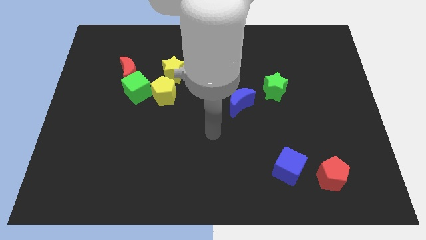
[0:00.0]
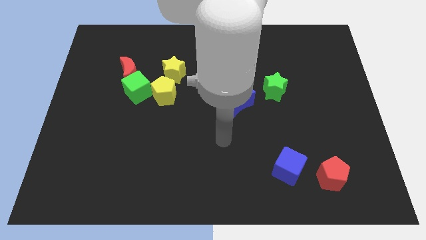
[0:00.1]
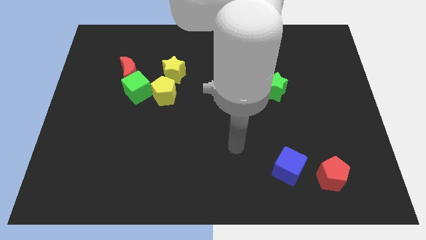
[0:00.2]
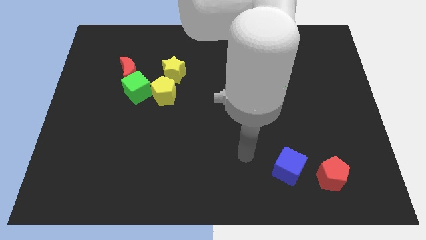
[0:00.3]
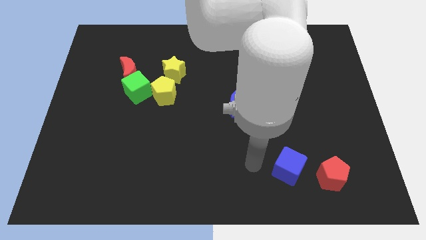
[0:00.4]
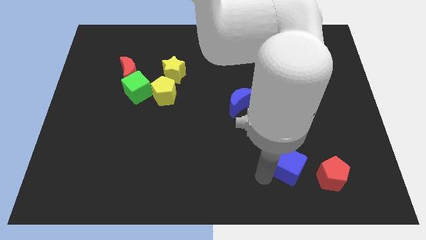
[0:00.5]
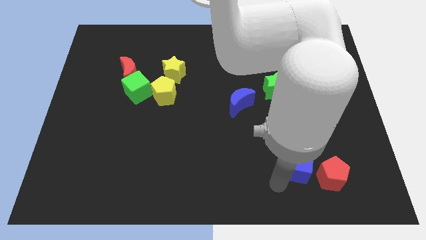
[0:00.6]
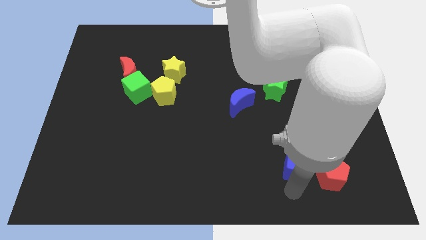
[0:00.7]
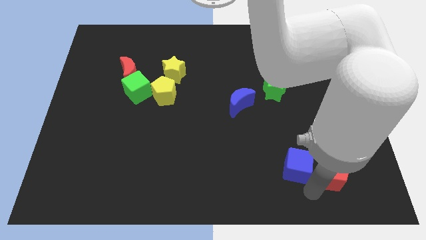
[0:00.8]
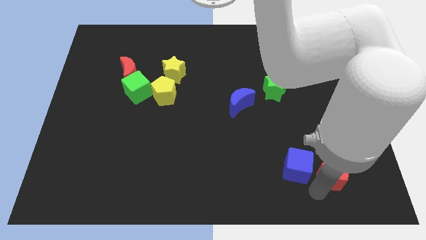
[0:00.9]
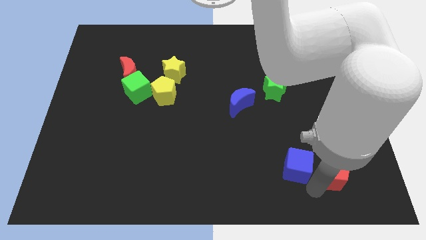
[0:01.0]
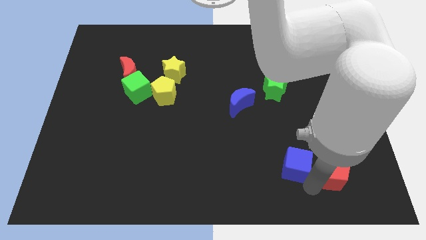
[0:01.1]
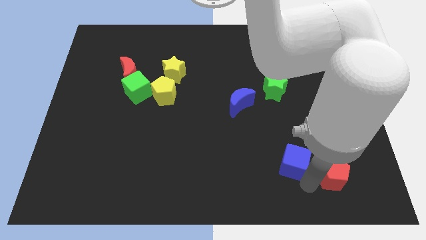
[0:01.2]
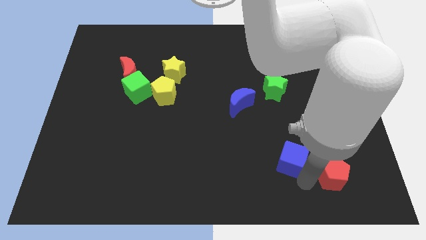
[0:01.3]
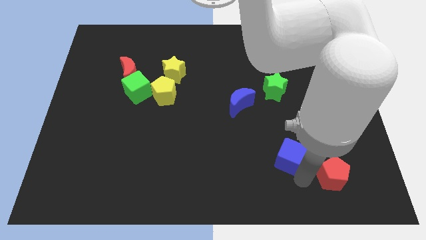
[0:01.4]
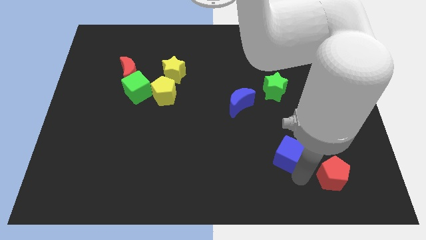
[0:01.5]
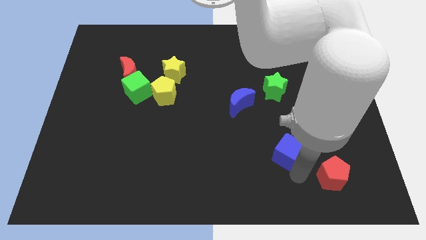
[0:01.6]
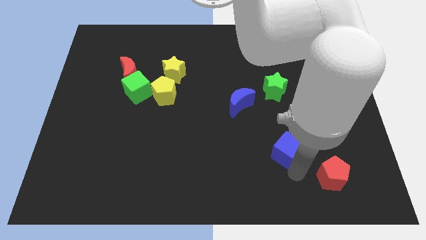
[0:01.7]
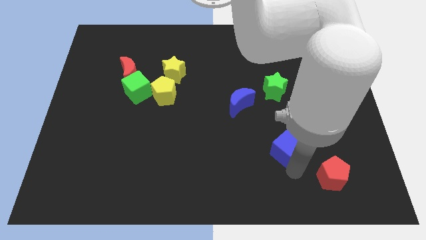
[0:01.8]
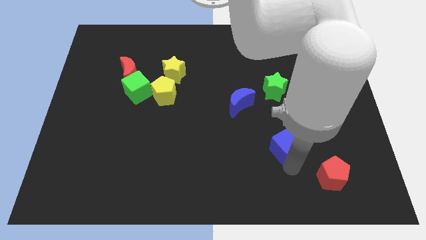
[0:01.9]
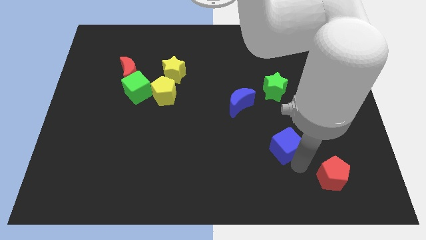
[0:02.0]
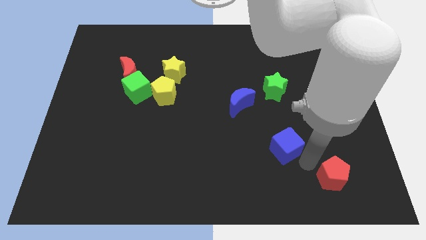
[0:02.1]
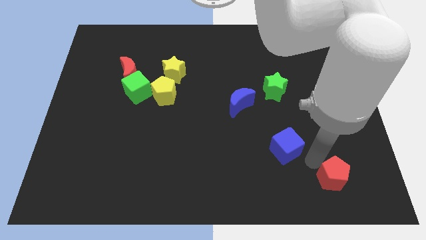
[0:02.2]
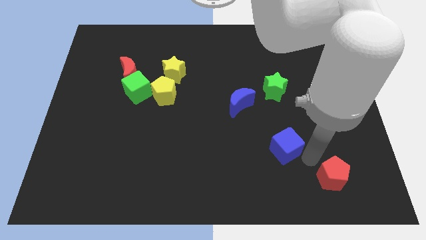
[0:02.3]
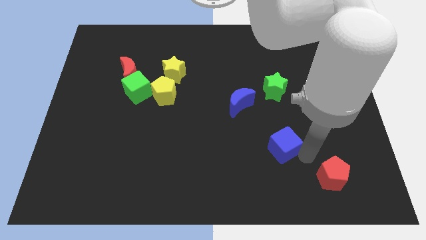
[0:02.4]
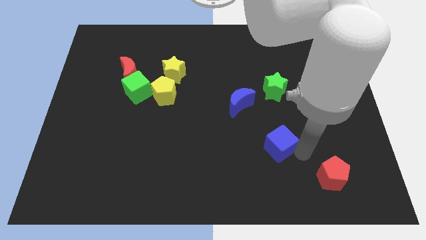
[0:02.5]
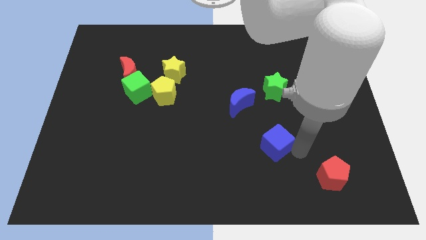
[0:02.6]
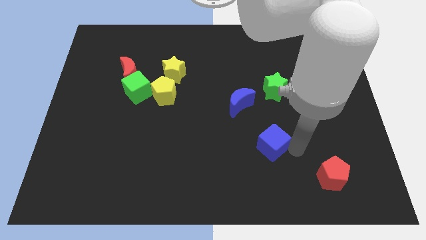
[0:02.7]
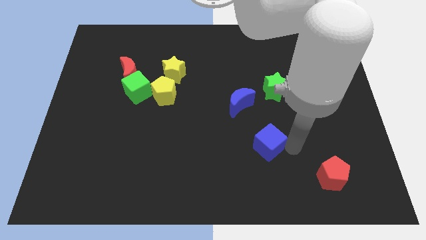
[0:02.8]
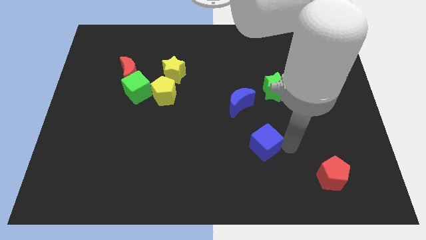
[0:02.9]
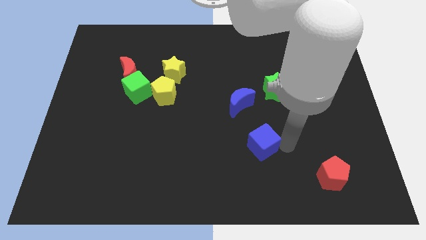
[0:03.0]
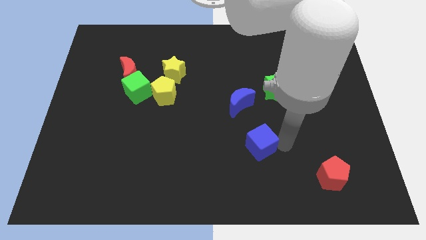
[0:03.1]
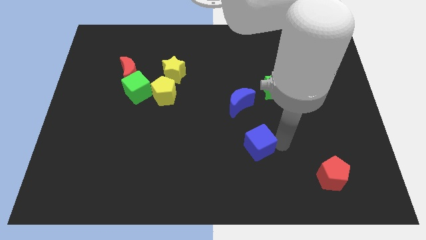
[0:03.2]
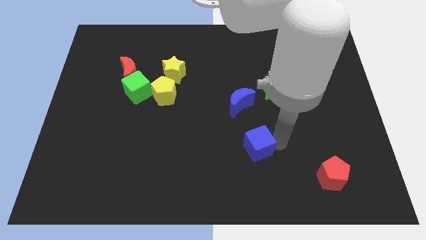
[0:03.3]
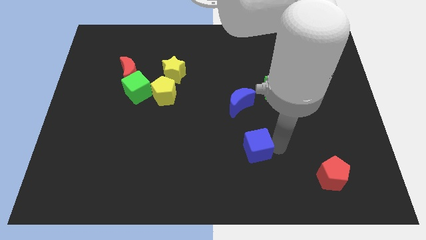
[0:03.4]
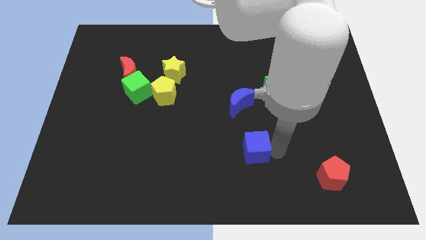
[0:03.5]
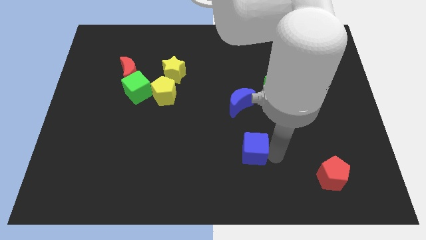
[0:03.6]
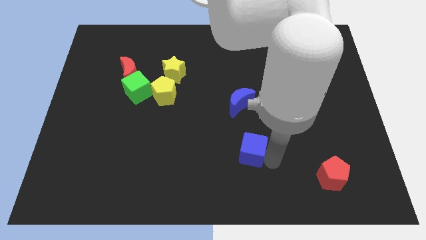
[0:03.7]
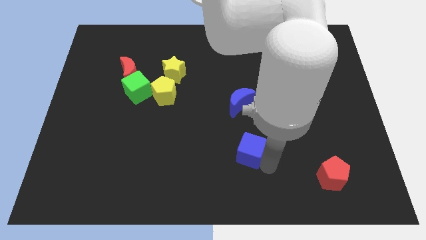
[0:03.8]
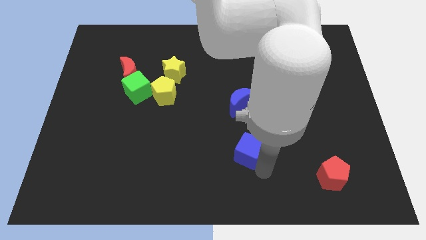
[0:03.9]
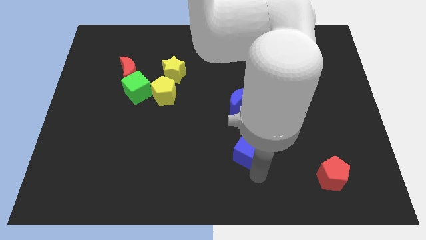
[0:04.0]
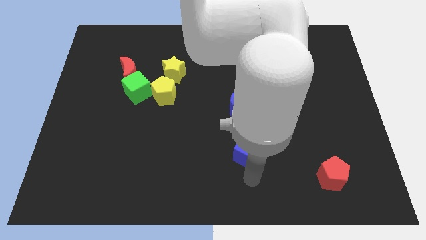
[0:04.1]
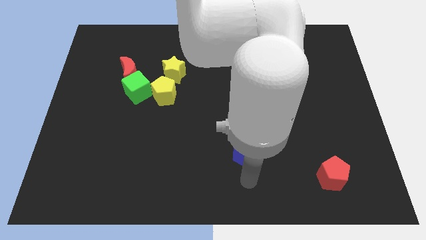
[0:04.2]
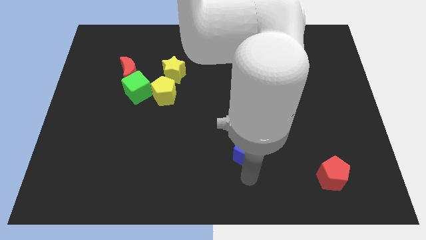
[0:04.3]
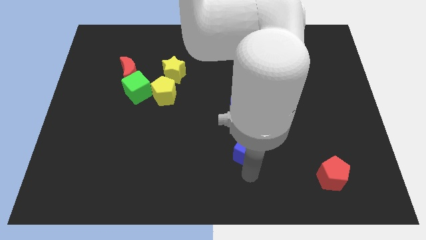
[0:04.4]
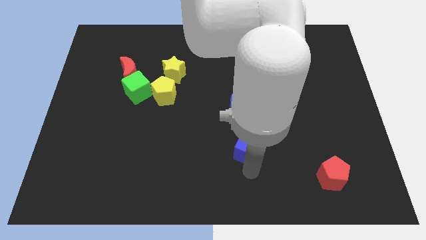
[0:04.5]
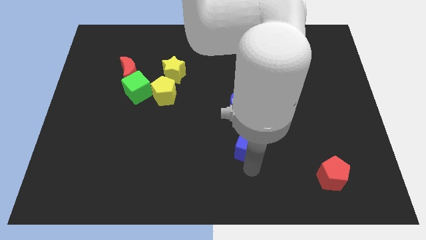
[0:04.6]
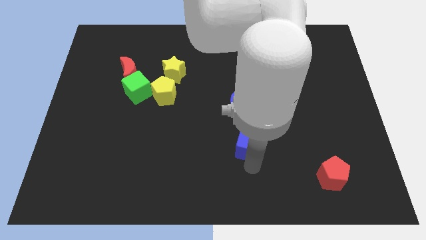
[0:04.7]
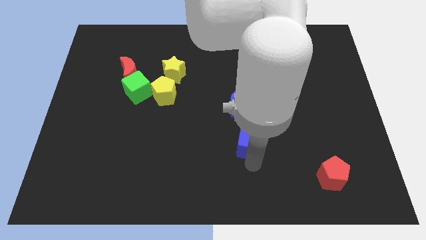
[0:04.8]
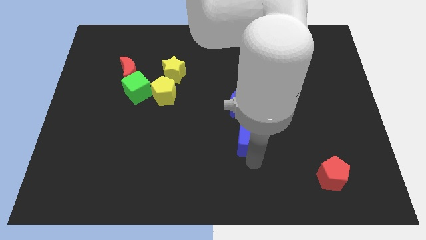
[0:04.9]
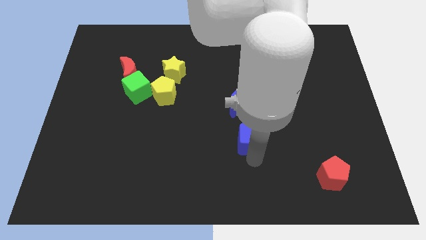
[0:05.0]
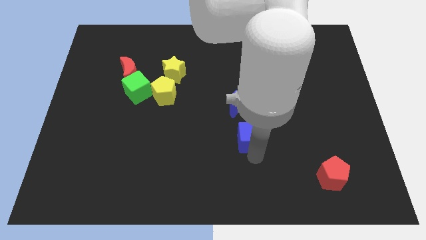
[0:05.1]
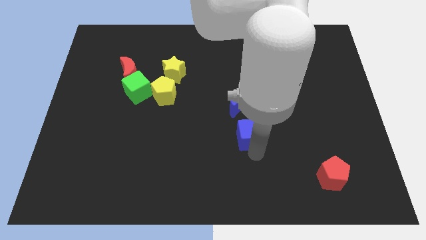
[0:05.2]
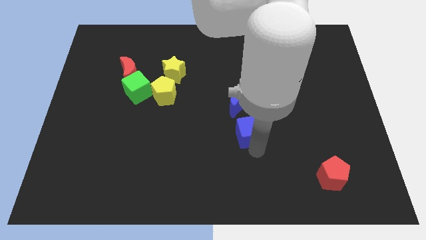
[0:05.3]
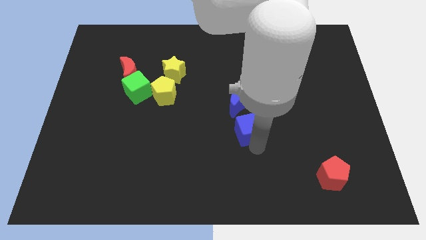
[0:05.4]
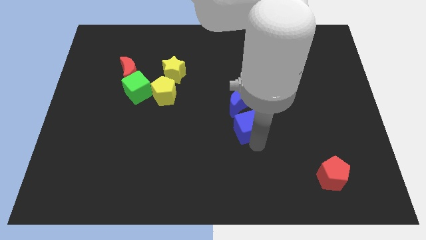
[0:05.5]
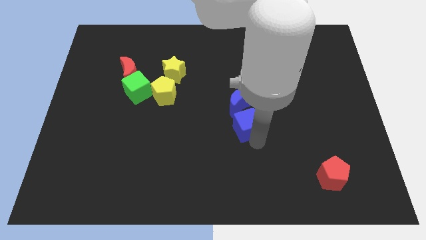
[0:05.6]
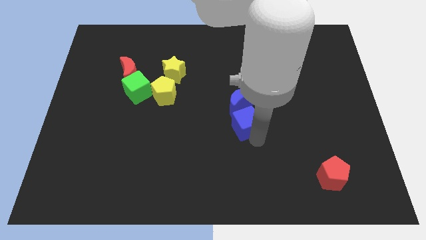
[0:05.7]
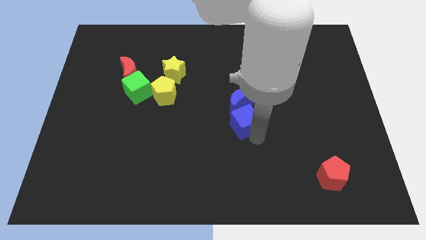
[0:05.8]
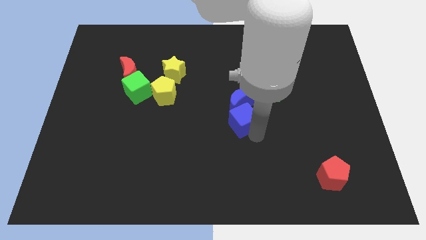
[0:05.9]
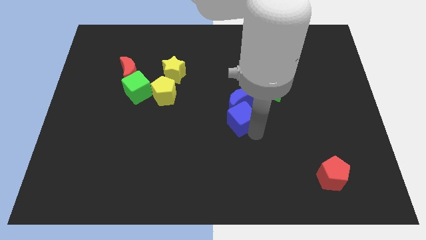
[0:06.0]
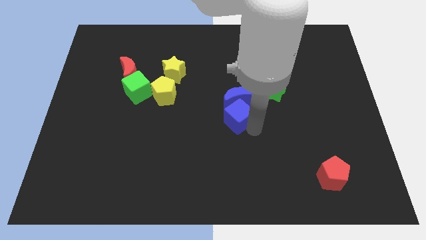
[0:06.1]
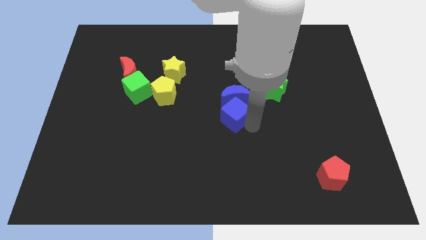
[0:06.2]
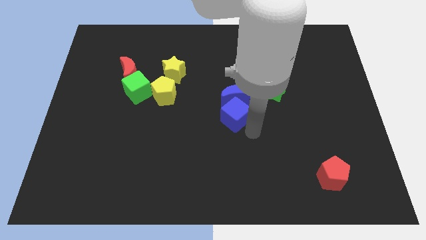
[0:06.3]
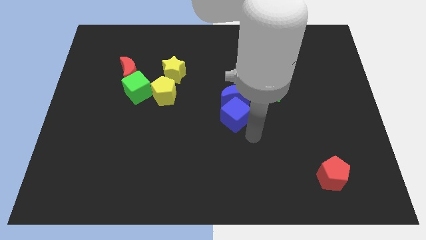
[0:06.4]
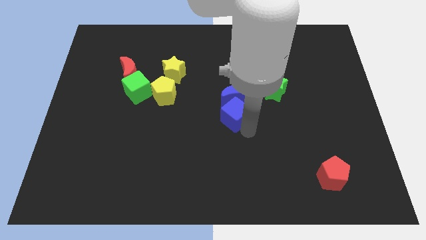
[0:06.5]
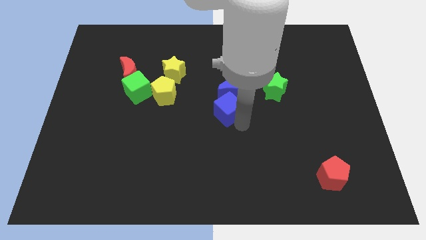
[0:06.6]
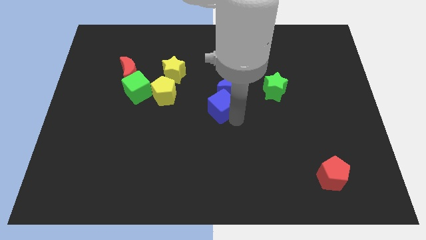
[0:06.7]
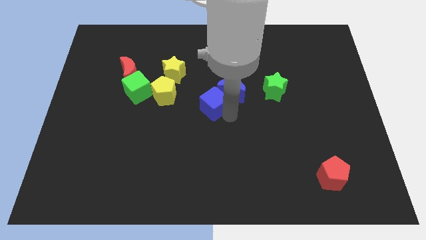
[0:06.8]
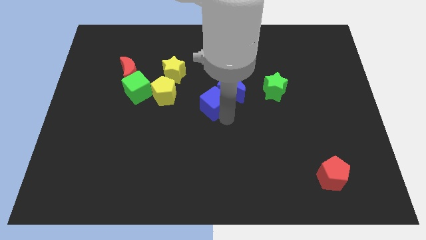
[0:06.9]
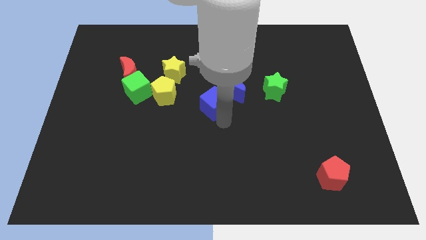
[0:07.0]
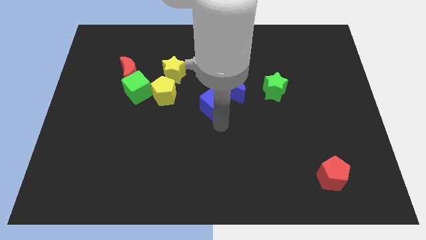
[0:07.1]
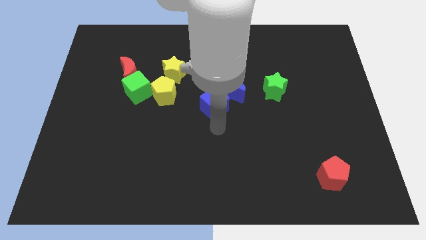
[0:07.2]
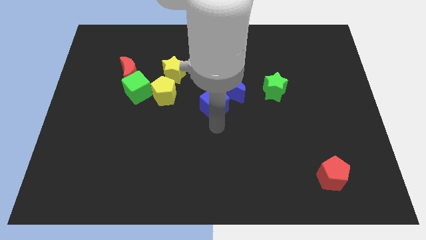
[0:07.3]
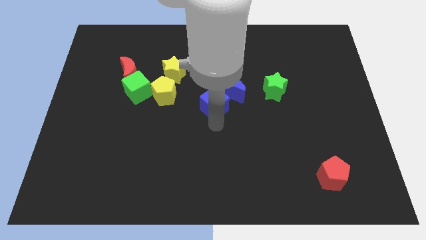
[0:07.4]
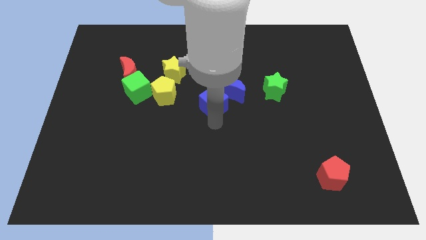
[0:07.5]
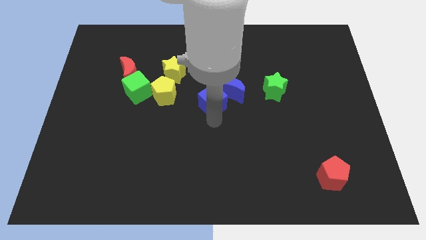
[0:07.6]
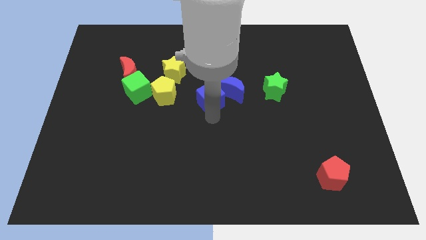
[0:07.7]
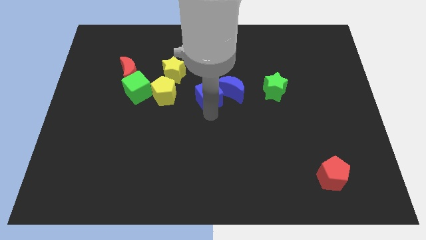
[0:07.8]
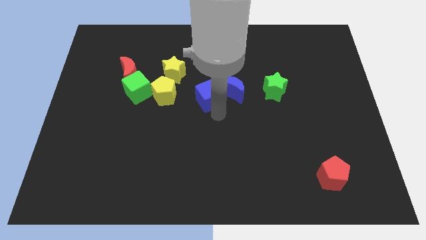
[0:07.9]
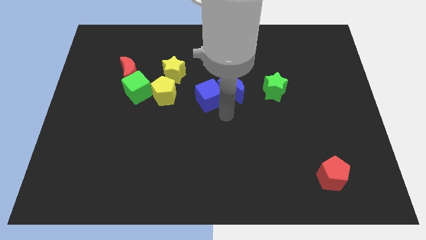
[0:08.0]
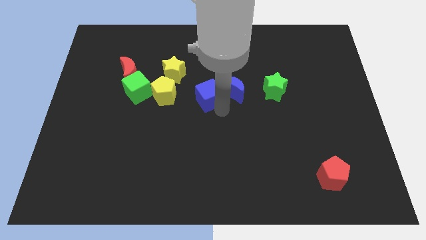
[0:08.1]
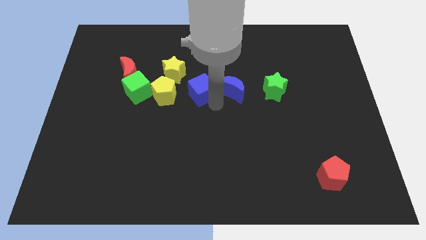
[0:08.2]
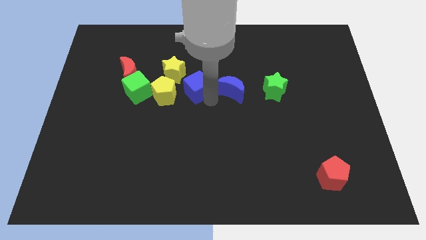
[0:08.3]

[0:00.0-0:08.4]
slide the blue cube to the top right side of the yellow pentagon
